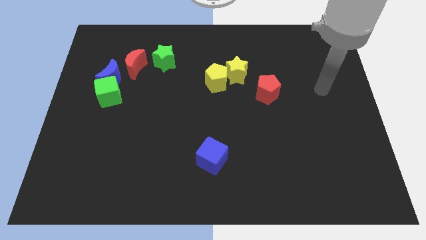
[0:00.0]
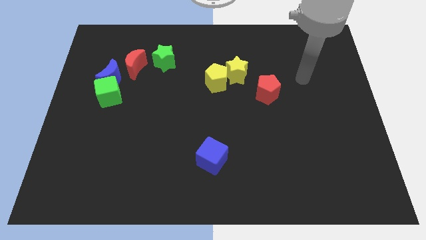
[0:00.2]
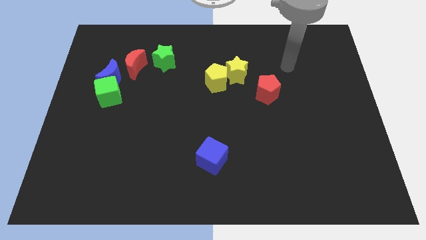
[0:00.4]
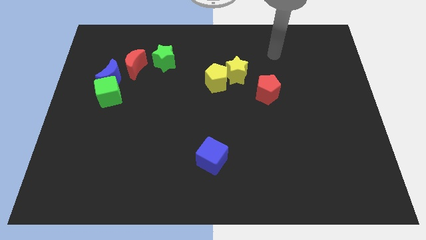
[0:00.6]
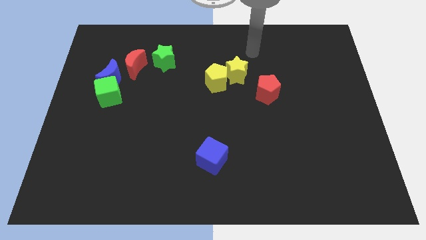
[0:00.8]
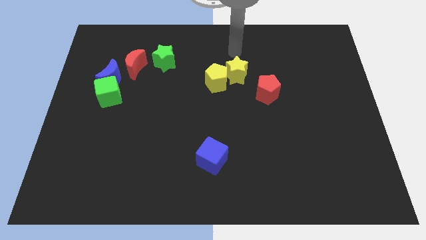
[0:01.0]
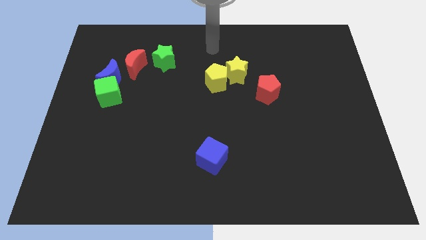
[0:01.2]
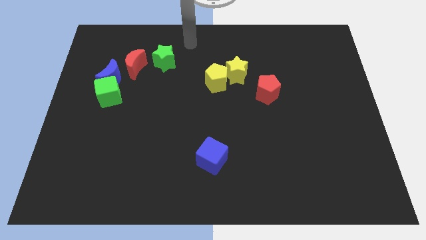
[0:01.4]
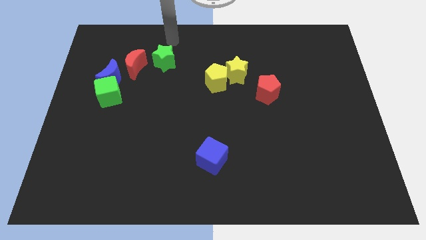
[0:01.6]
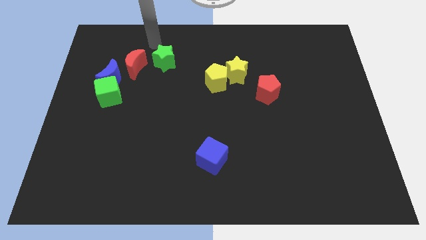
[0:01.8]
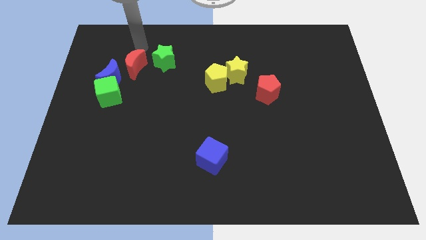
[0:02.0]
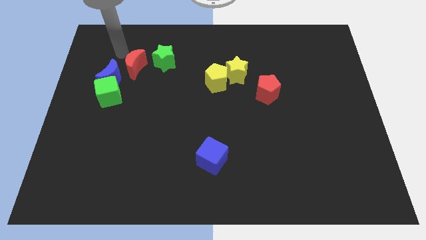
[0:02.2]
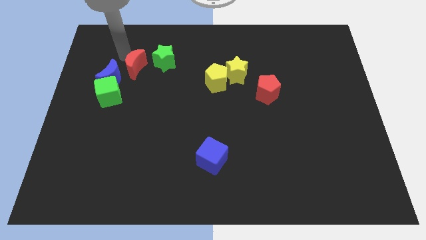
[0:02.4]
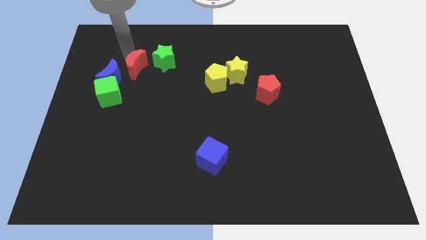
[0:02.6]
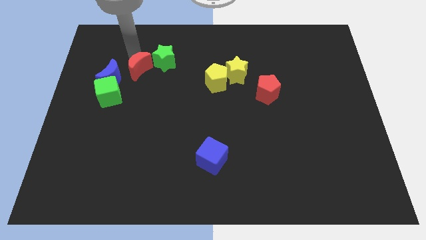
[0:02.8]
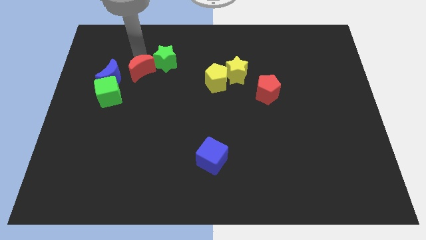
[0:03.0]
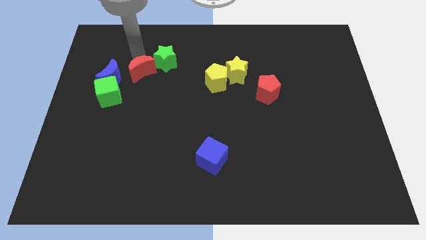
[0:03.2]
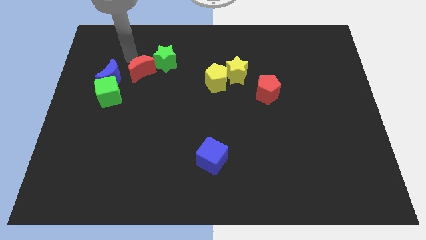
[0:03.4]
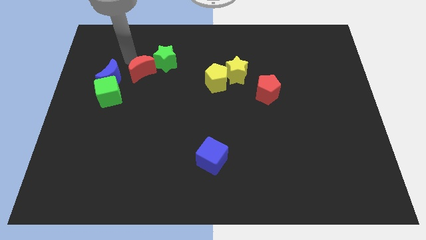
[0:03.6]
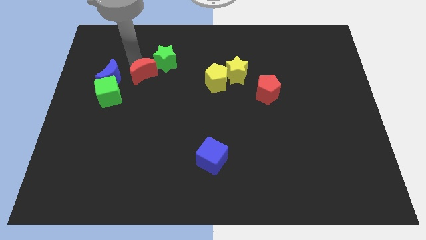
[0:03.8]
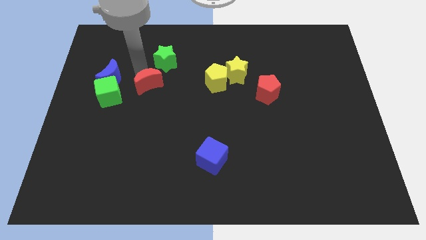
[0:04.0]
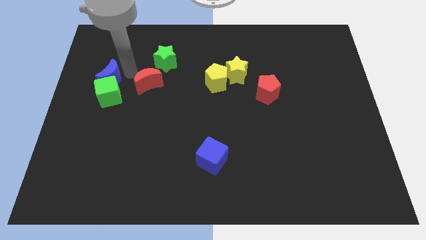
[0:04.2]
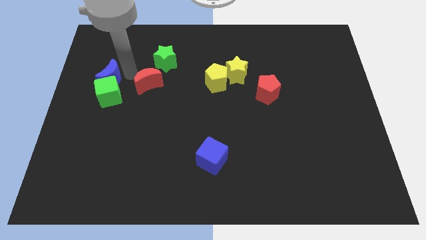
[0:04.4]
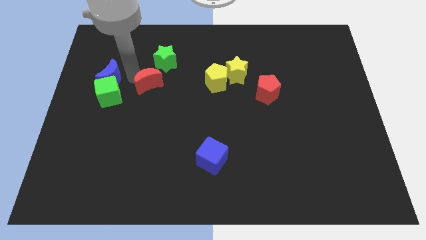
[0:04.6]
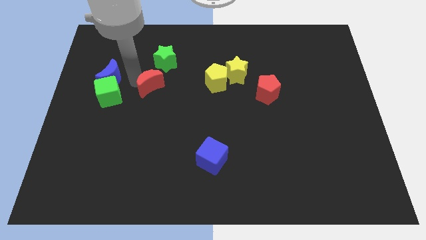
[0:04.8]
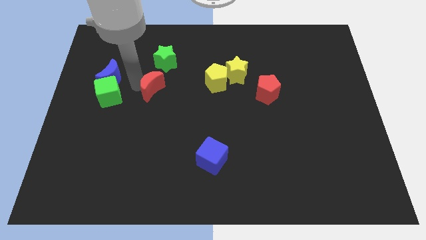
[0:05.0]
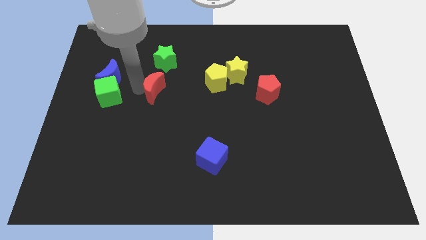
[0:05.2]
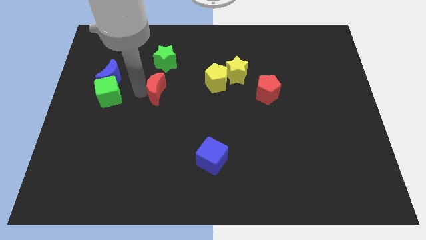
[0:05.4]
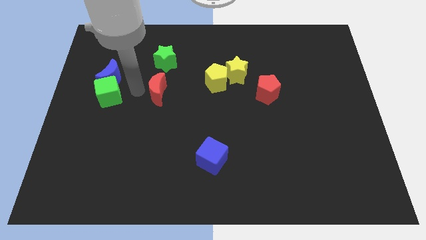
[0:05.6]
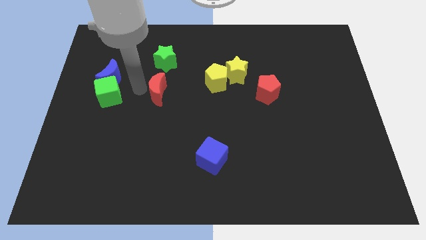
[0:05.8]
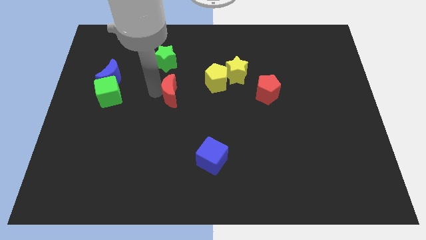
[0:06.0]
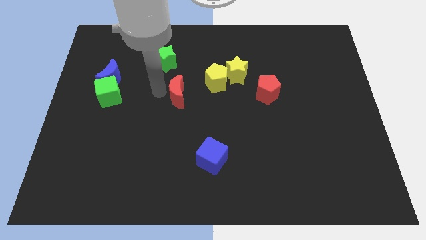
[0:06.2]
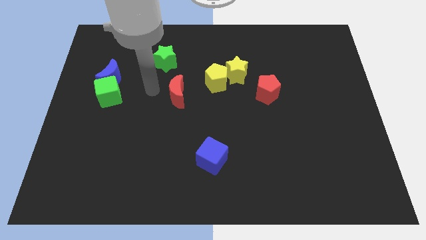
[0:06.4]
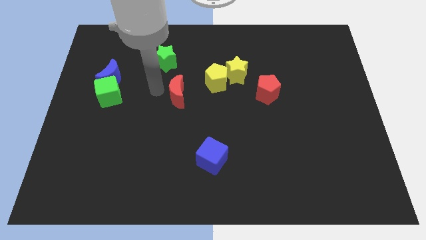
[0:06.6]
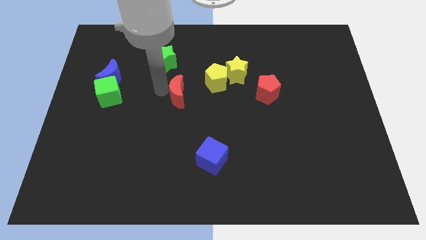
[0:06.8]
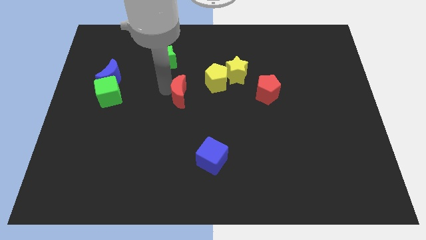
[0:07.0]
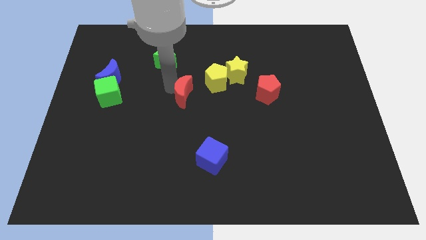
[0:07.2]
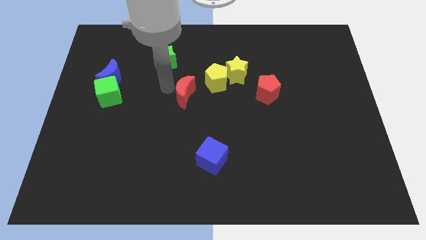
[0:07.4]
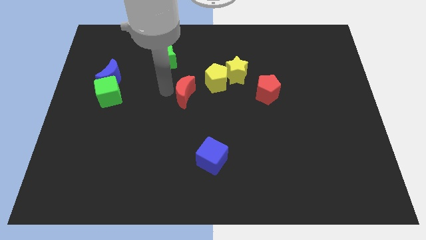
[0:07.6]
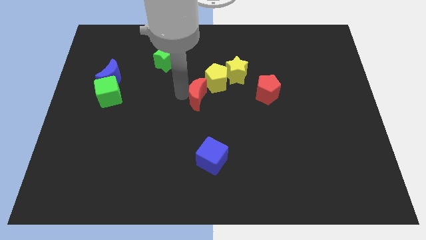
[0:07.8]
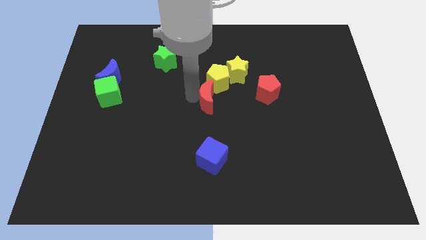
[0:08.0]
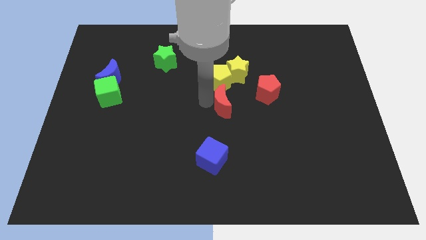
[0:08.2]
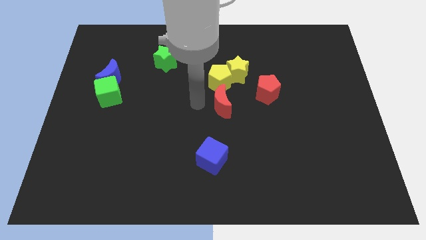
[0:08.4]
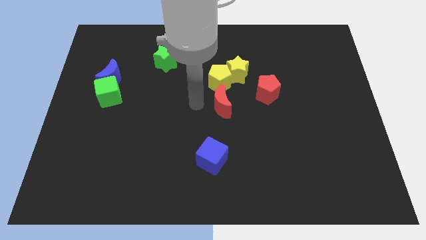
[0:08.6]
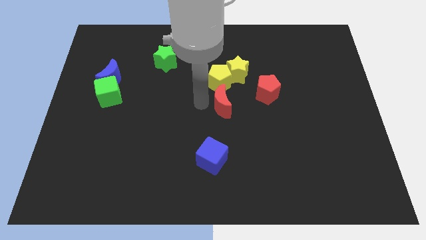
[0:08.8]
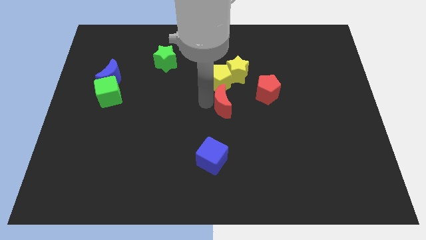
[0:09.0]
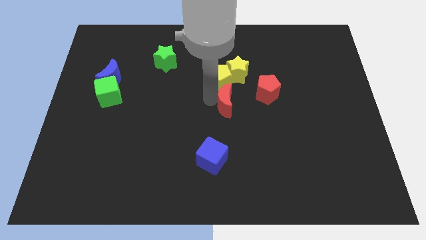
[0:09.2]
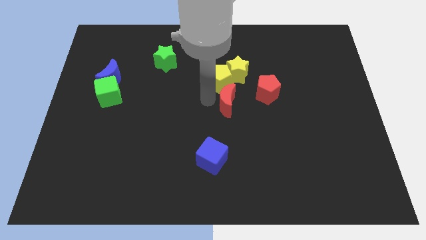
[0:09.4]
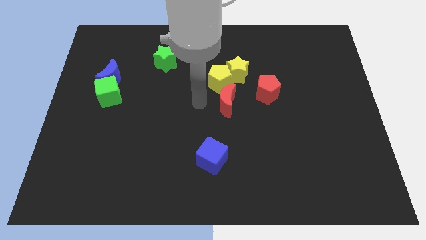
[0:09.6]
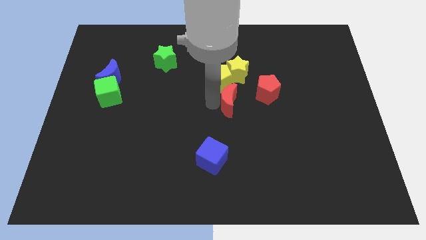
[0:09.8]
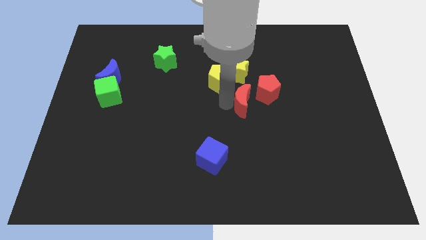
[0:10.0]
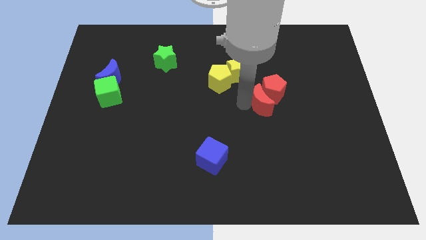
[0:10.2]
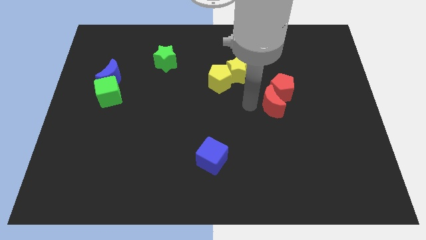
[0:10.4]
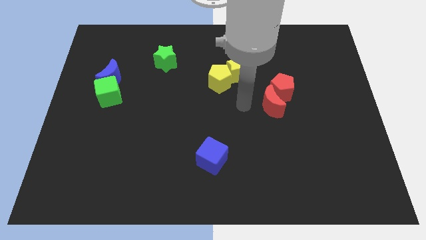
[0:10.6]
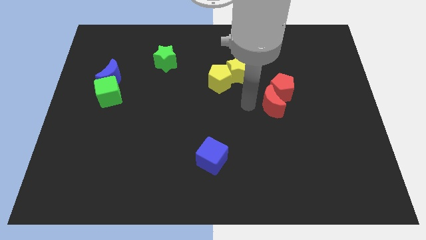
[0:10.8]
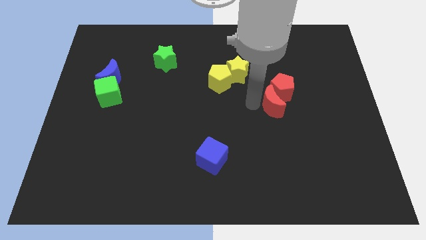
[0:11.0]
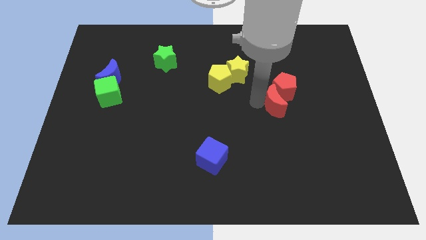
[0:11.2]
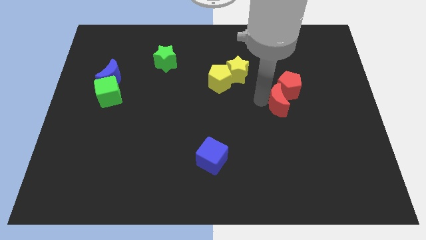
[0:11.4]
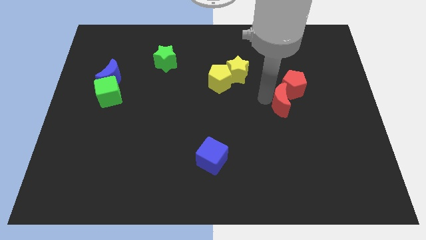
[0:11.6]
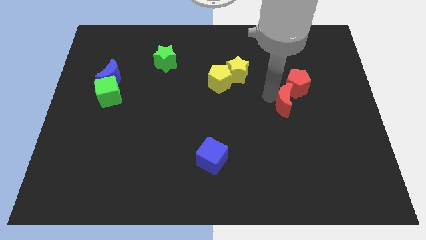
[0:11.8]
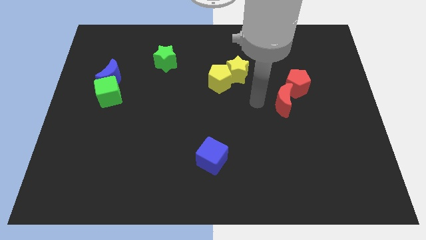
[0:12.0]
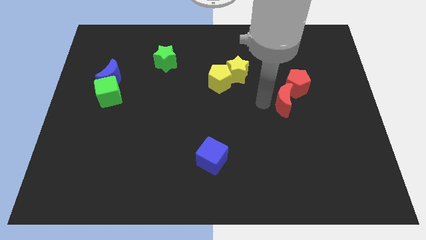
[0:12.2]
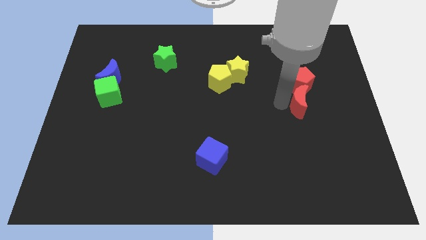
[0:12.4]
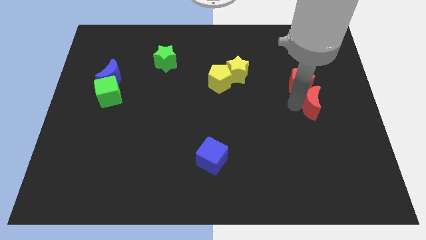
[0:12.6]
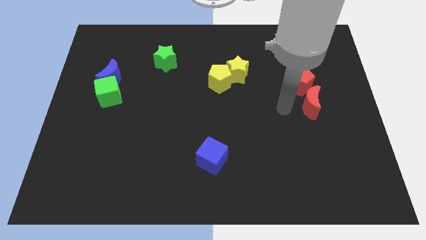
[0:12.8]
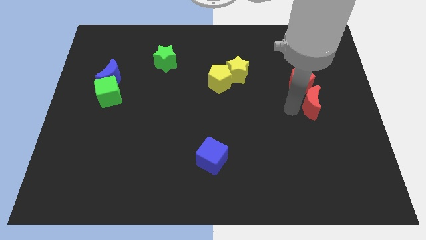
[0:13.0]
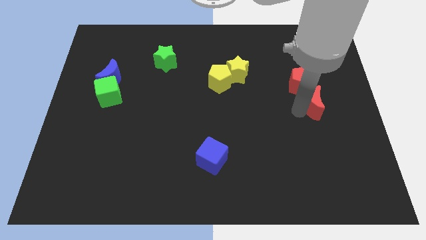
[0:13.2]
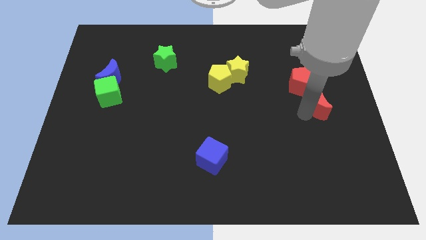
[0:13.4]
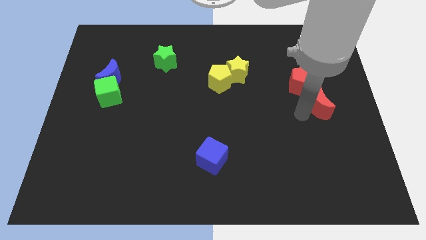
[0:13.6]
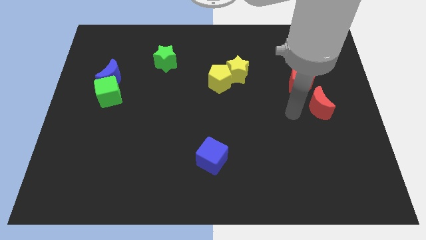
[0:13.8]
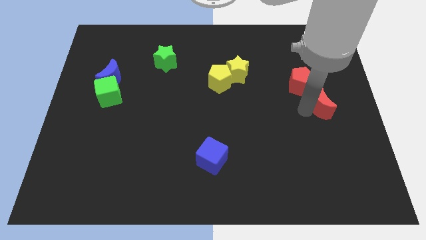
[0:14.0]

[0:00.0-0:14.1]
push the red moon to the center right
